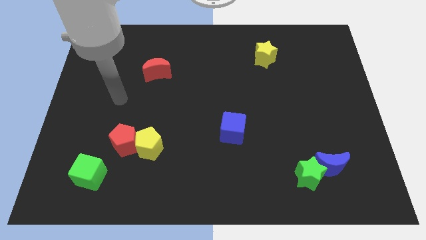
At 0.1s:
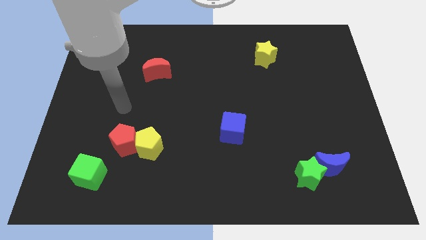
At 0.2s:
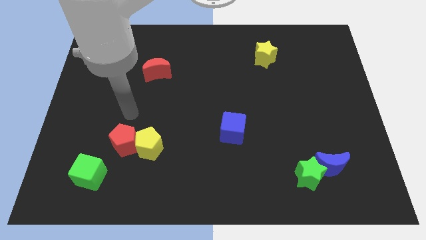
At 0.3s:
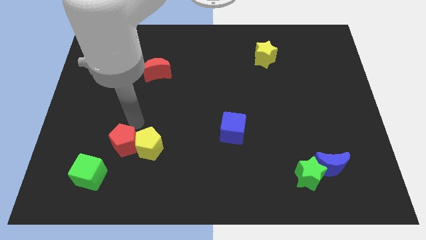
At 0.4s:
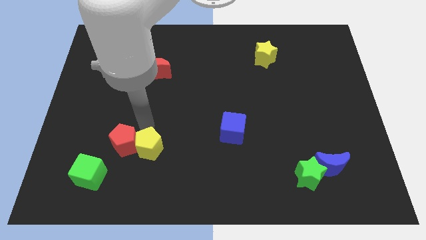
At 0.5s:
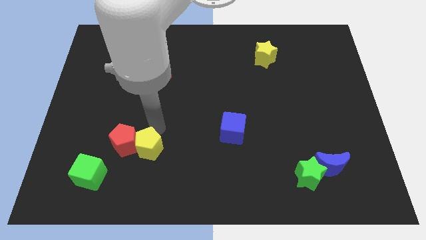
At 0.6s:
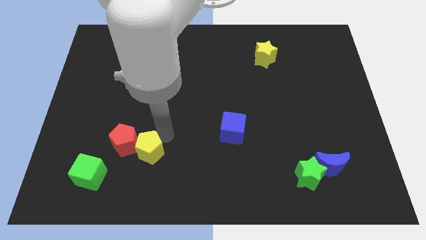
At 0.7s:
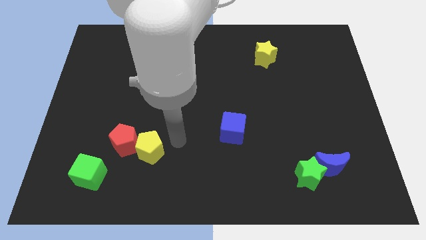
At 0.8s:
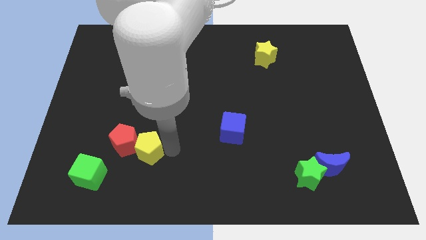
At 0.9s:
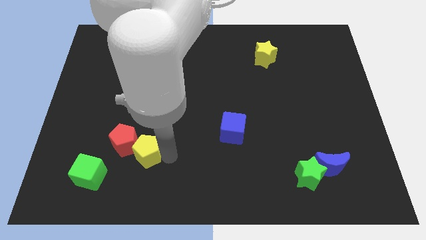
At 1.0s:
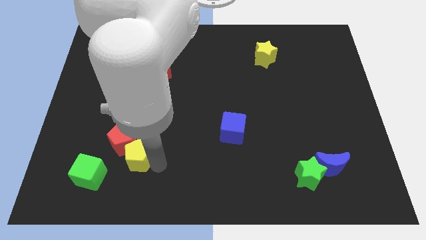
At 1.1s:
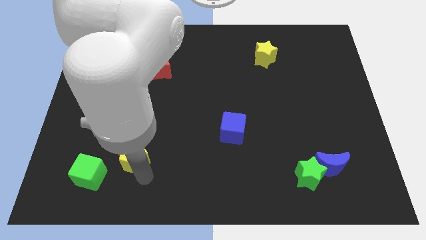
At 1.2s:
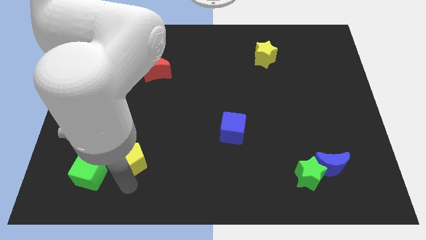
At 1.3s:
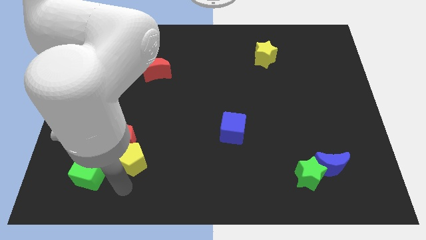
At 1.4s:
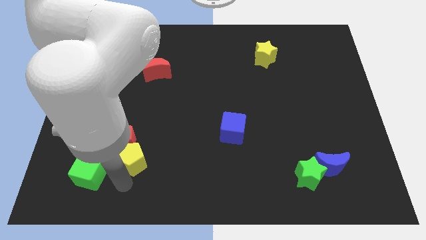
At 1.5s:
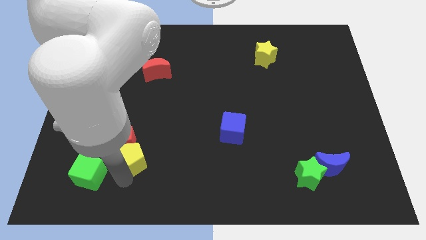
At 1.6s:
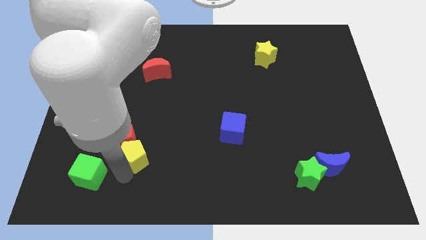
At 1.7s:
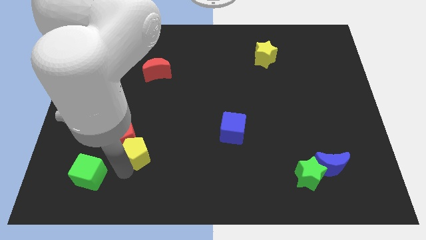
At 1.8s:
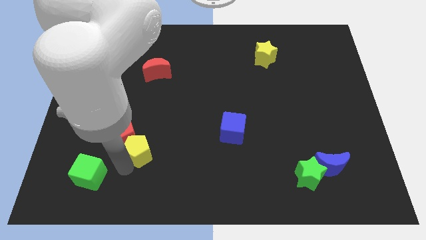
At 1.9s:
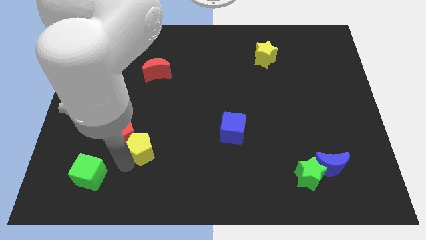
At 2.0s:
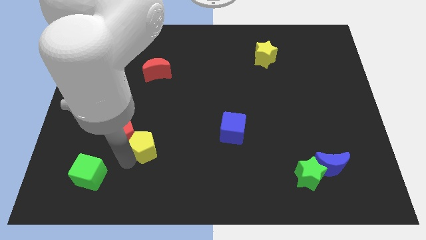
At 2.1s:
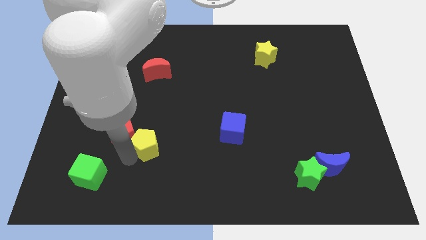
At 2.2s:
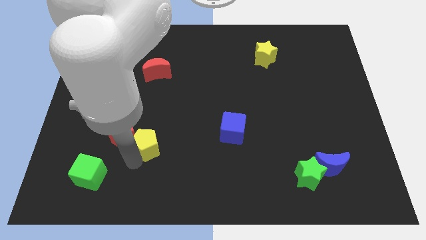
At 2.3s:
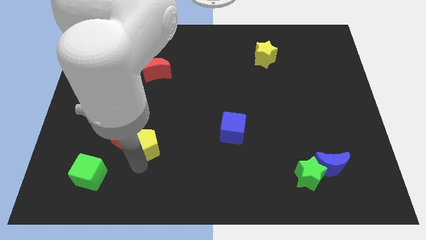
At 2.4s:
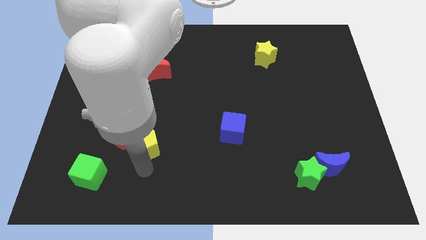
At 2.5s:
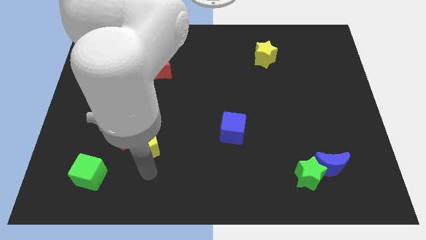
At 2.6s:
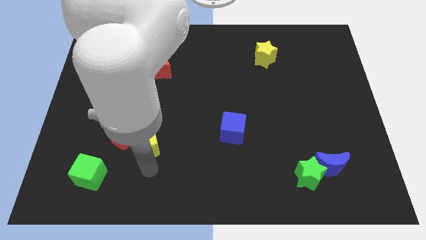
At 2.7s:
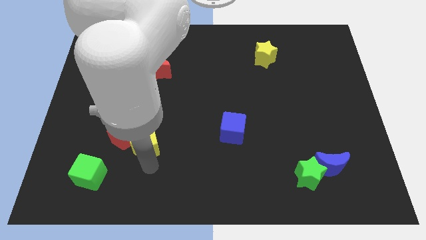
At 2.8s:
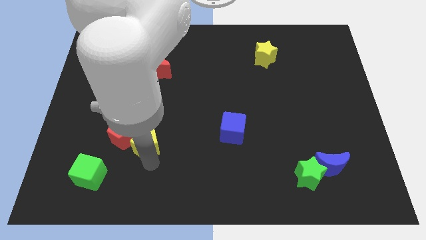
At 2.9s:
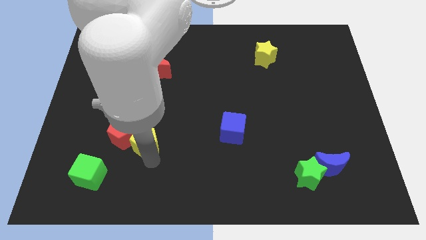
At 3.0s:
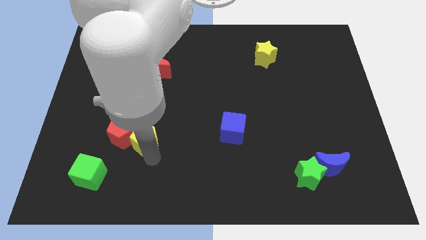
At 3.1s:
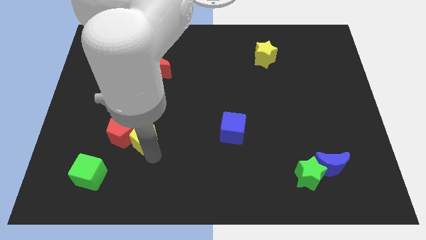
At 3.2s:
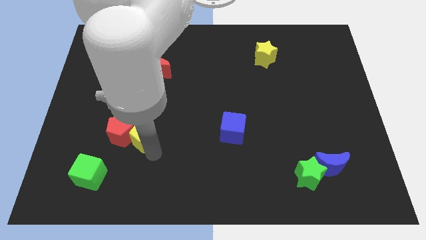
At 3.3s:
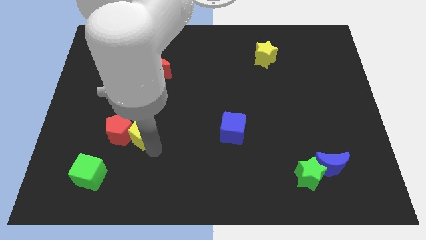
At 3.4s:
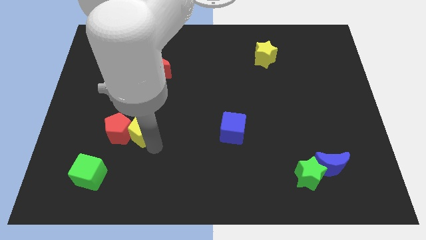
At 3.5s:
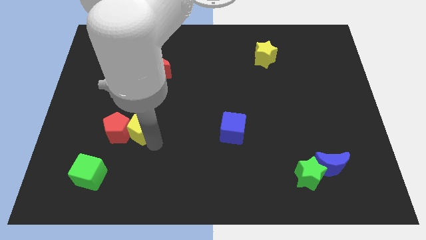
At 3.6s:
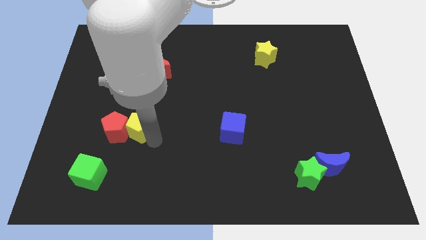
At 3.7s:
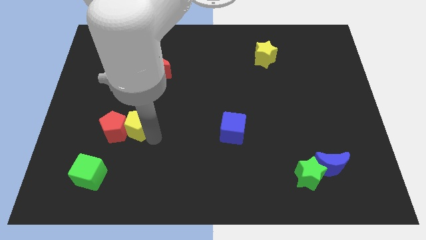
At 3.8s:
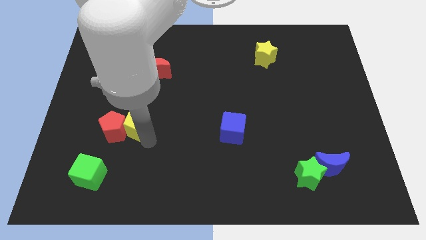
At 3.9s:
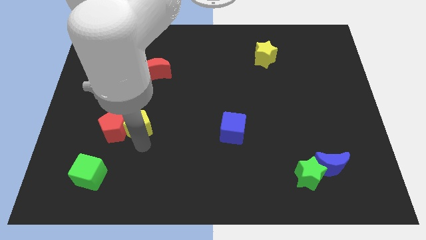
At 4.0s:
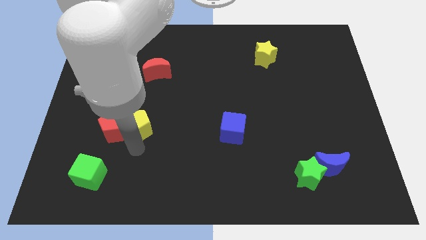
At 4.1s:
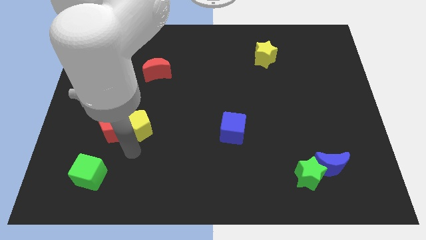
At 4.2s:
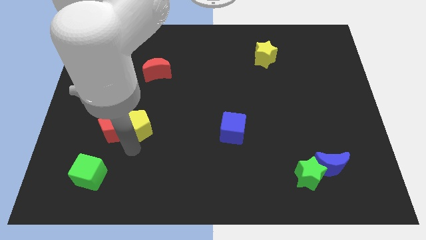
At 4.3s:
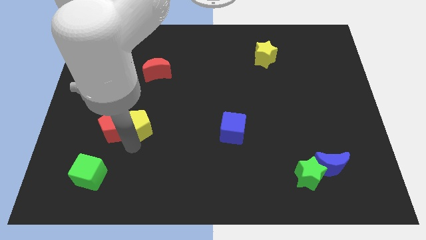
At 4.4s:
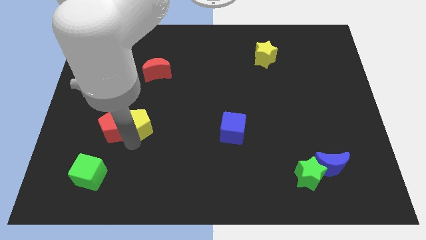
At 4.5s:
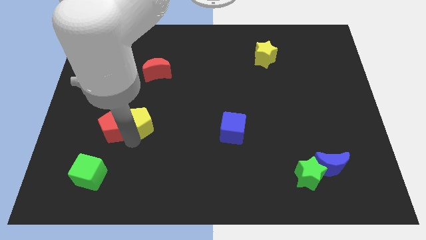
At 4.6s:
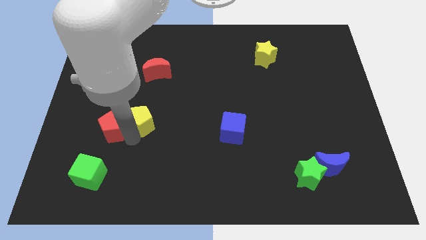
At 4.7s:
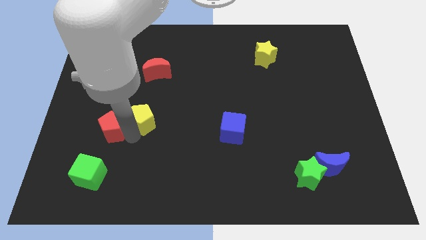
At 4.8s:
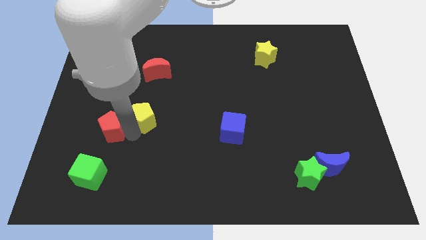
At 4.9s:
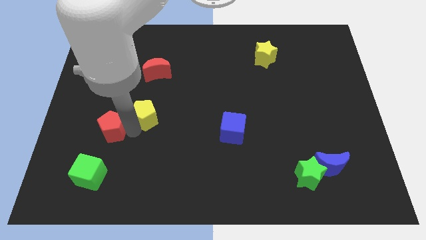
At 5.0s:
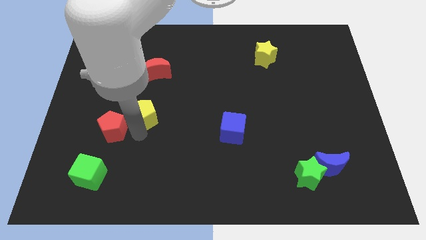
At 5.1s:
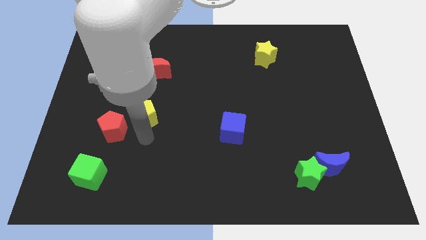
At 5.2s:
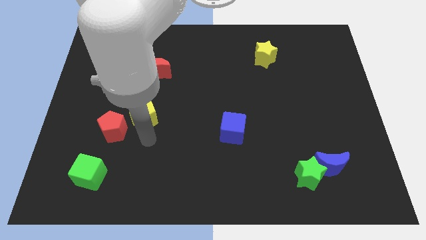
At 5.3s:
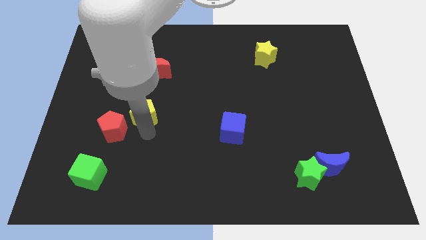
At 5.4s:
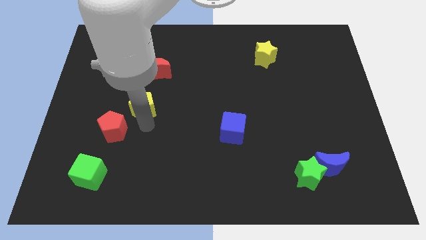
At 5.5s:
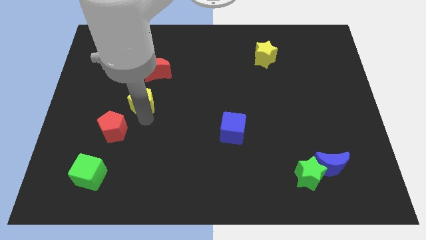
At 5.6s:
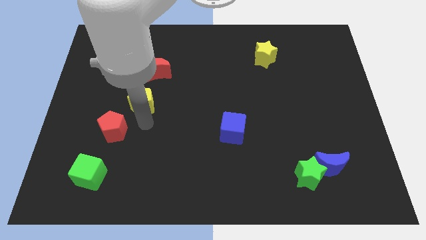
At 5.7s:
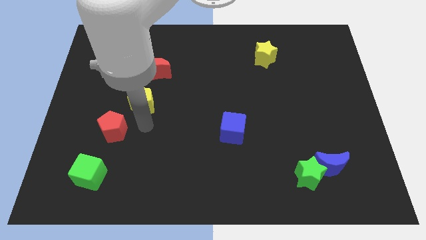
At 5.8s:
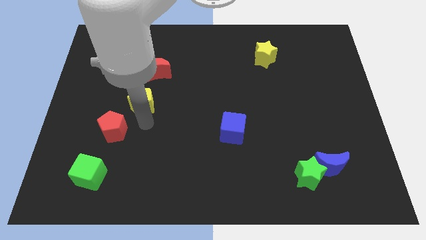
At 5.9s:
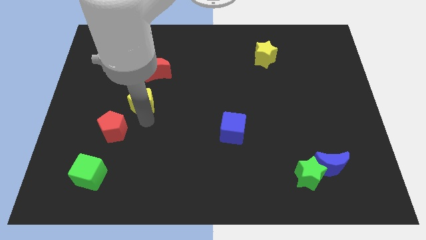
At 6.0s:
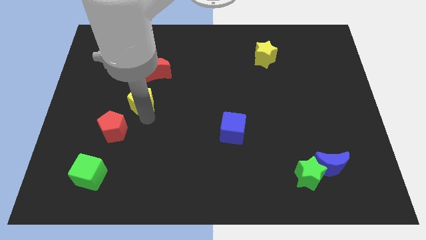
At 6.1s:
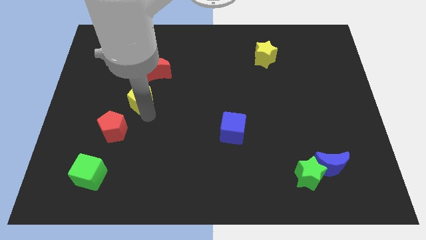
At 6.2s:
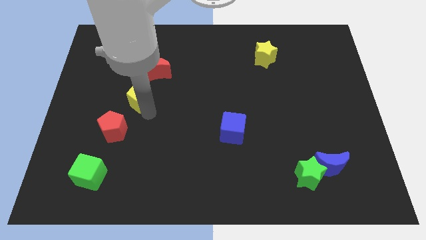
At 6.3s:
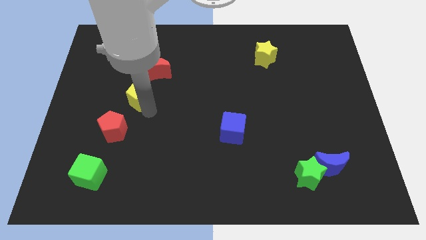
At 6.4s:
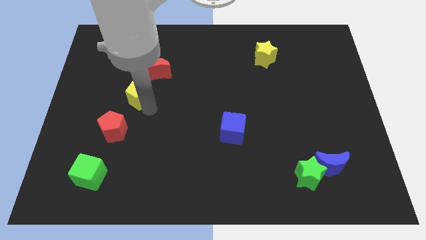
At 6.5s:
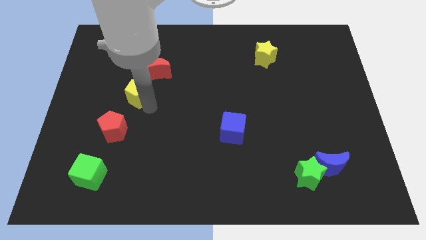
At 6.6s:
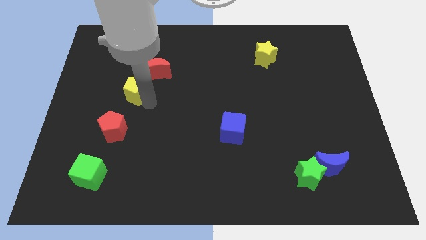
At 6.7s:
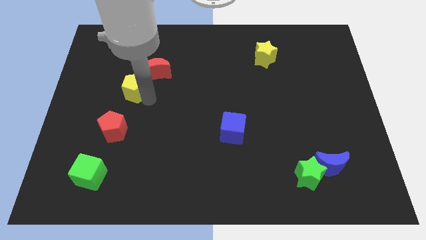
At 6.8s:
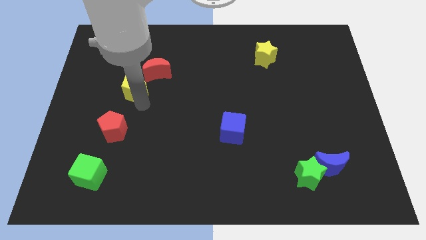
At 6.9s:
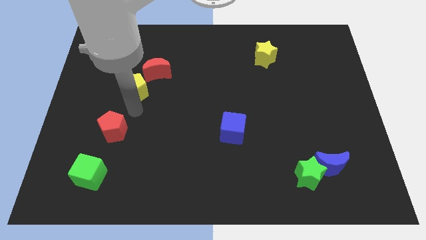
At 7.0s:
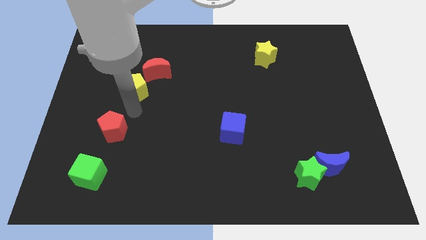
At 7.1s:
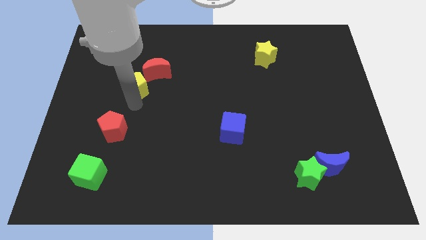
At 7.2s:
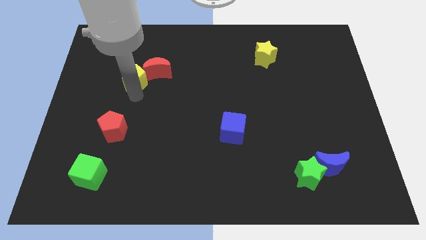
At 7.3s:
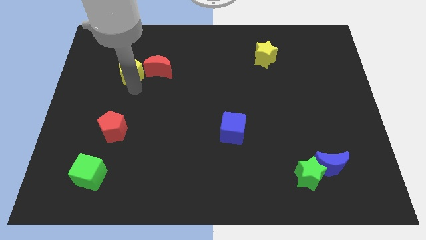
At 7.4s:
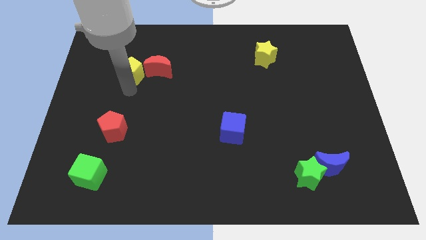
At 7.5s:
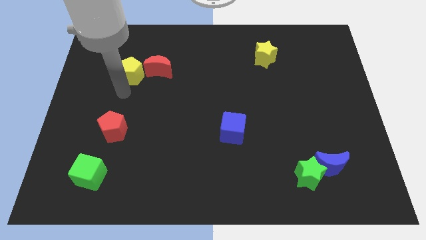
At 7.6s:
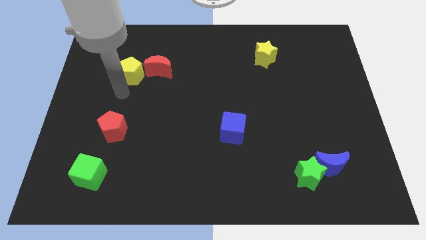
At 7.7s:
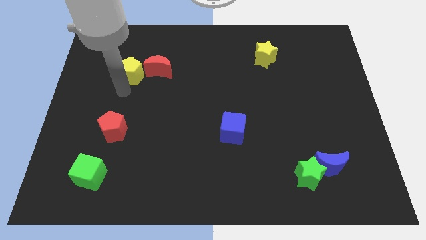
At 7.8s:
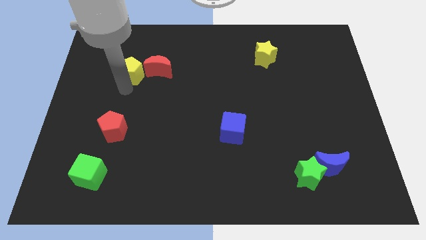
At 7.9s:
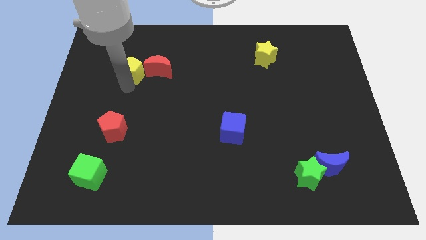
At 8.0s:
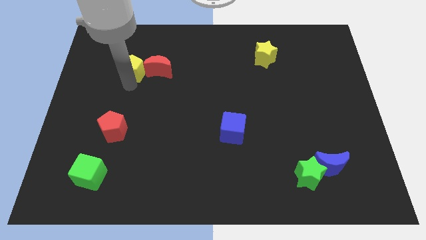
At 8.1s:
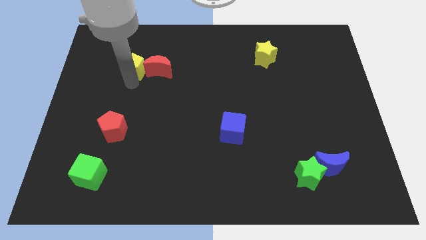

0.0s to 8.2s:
slide the yellow pentagon to the top left side of the red moon
